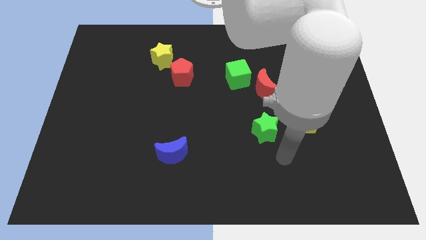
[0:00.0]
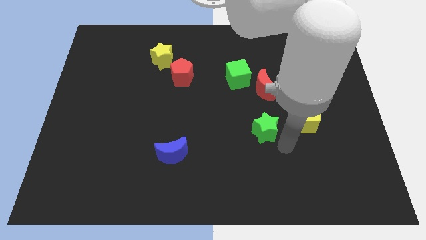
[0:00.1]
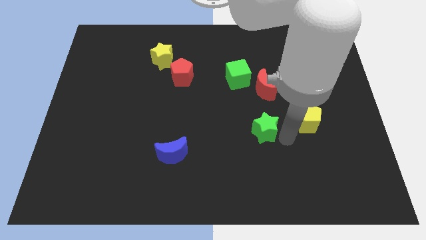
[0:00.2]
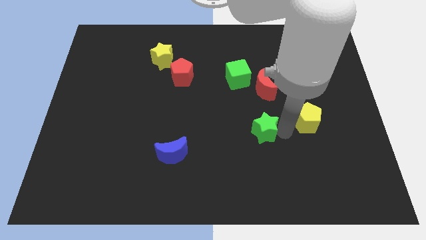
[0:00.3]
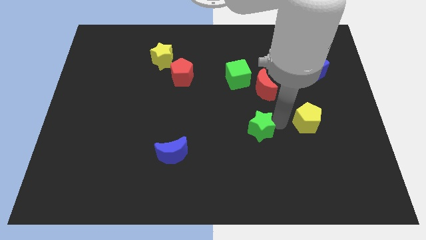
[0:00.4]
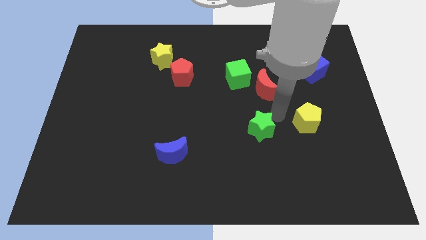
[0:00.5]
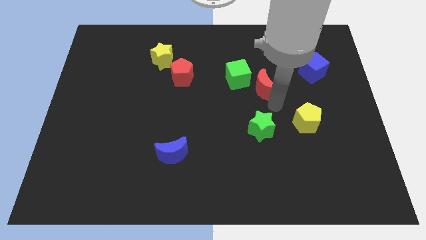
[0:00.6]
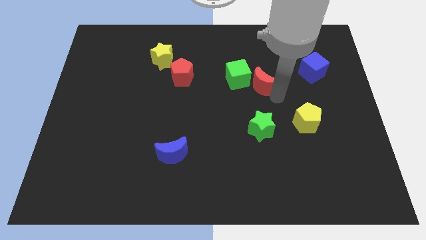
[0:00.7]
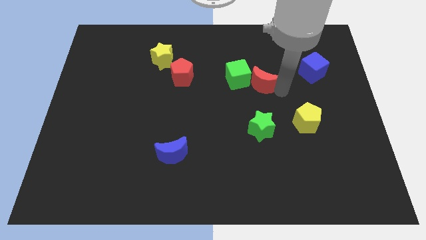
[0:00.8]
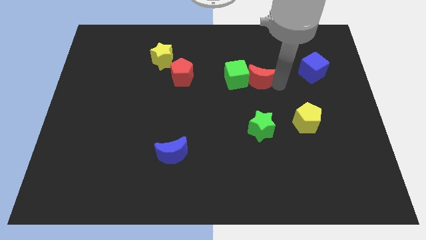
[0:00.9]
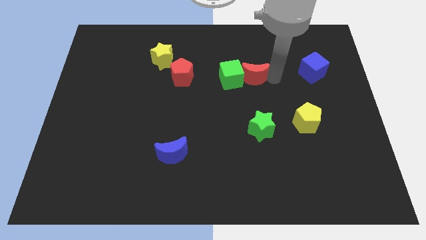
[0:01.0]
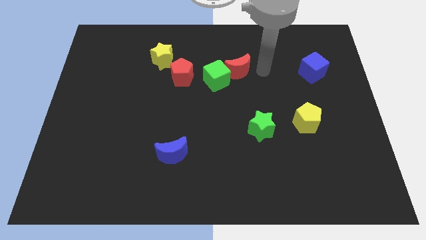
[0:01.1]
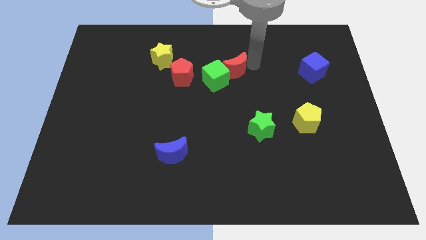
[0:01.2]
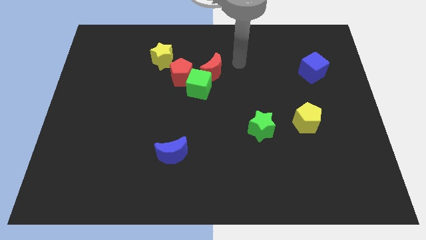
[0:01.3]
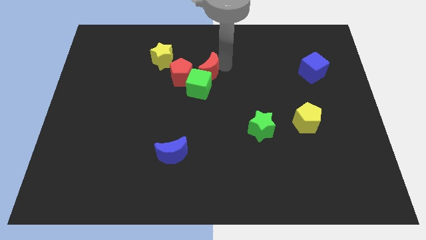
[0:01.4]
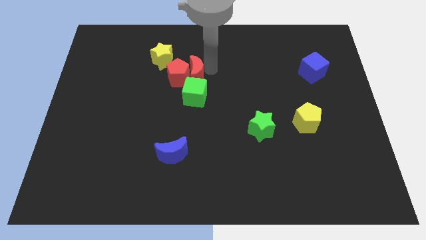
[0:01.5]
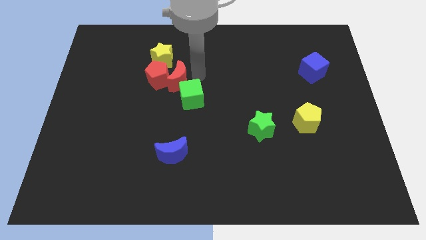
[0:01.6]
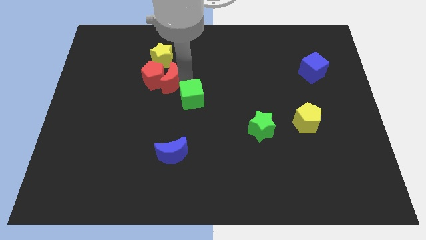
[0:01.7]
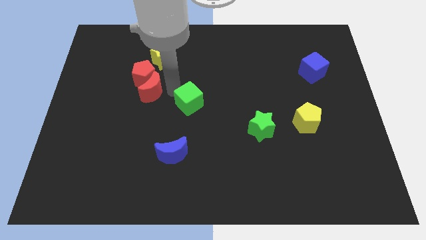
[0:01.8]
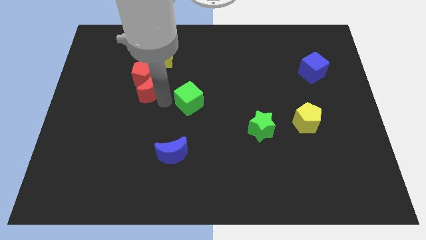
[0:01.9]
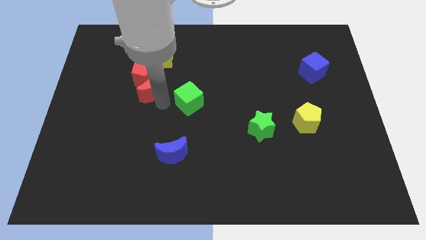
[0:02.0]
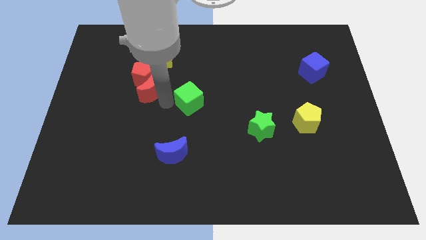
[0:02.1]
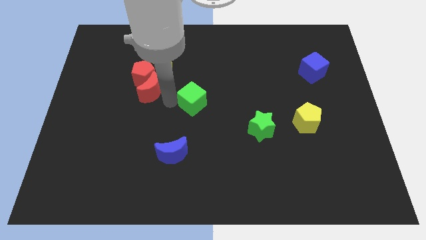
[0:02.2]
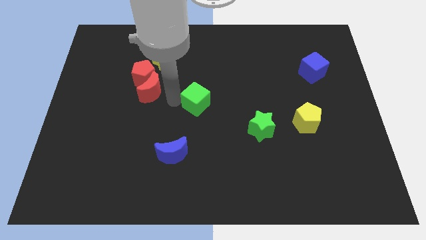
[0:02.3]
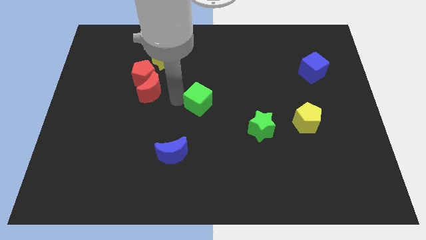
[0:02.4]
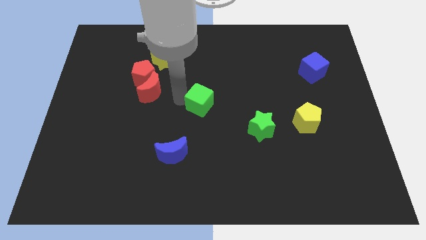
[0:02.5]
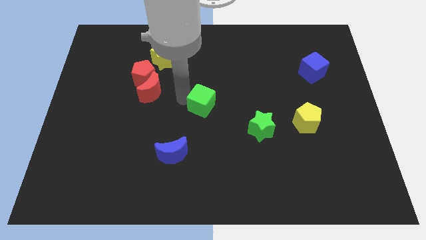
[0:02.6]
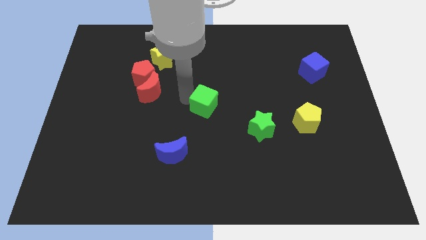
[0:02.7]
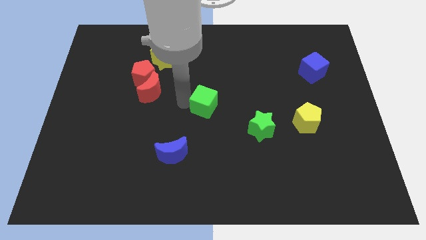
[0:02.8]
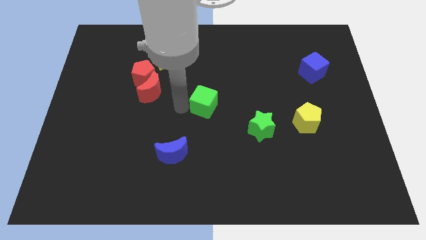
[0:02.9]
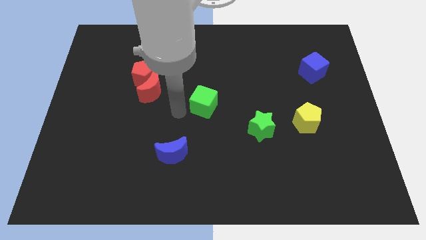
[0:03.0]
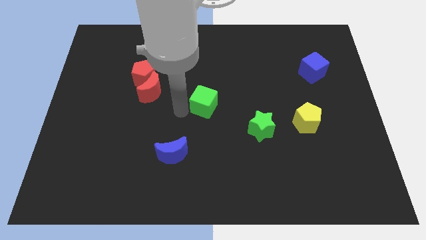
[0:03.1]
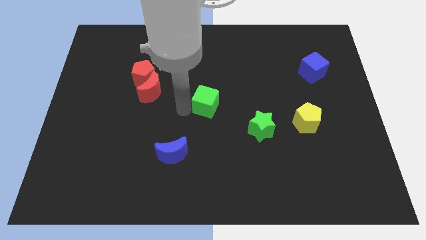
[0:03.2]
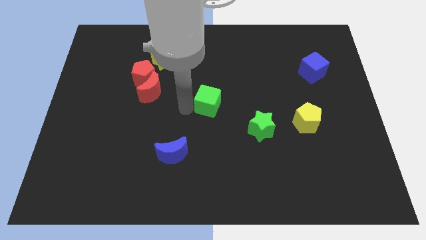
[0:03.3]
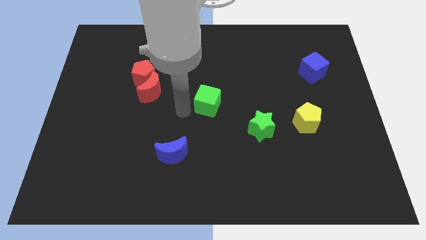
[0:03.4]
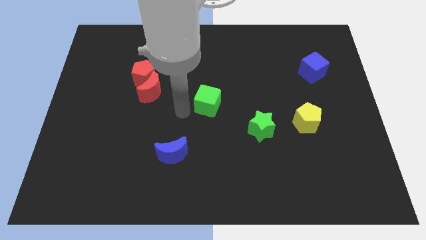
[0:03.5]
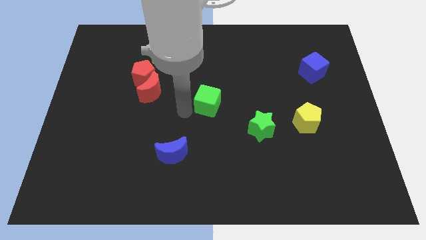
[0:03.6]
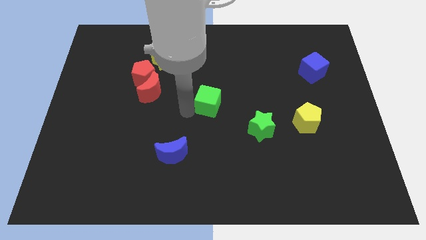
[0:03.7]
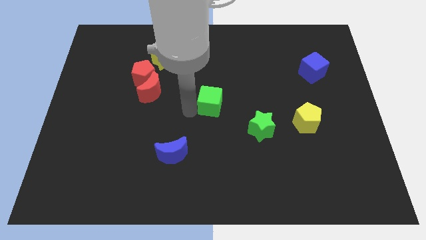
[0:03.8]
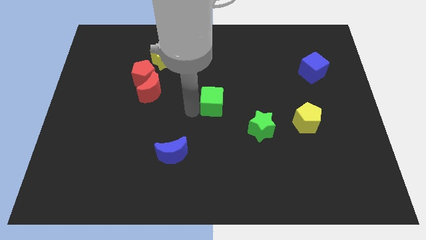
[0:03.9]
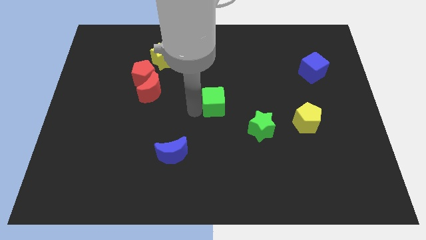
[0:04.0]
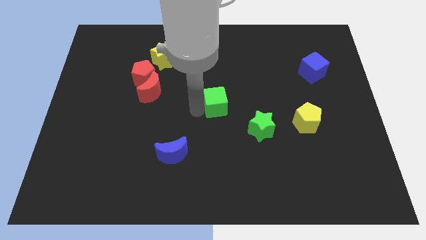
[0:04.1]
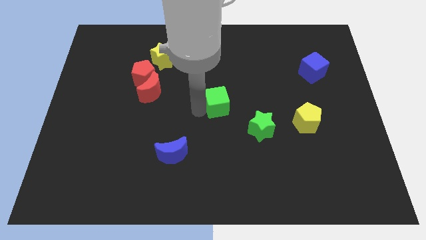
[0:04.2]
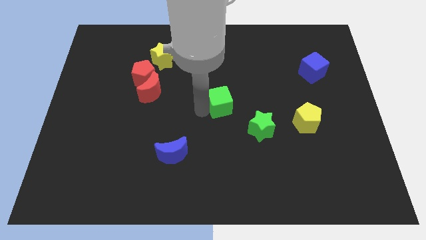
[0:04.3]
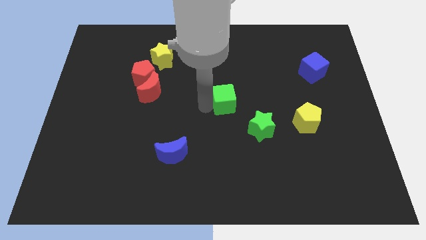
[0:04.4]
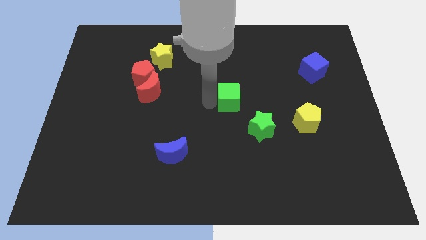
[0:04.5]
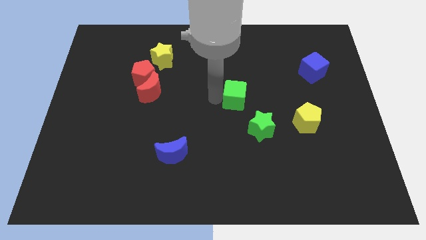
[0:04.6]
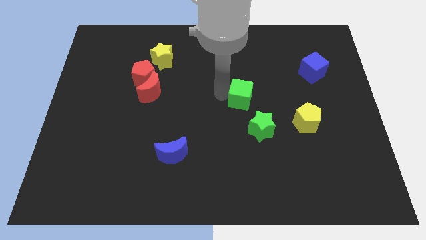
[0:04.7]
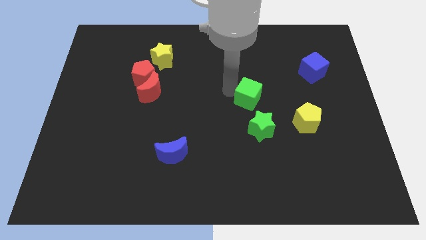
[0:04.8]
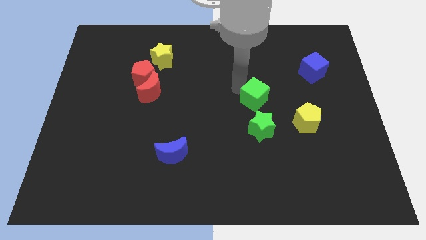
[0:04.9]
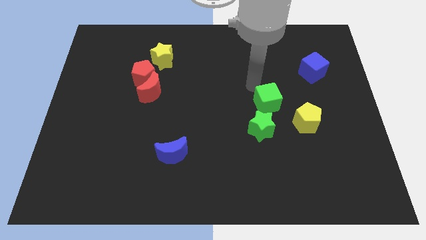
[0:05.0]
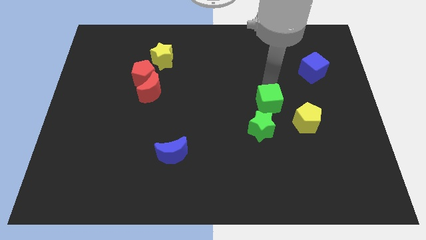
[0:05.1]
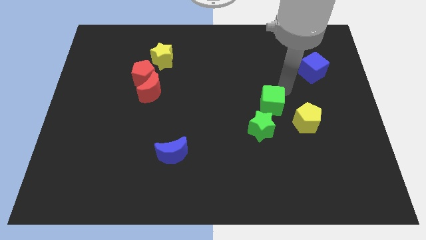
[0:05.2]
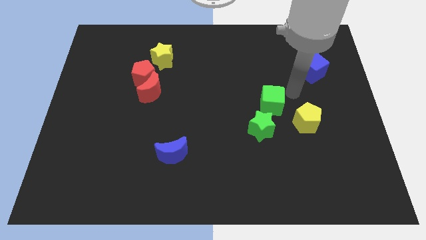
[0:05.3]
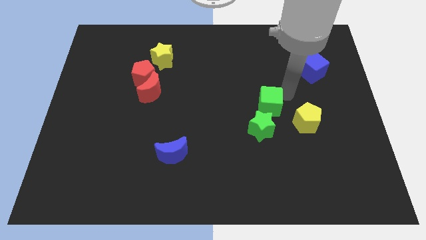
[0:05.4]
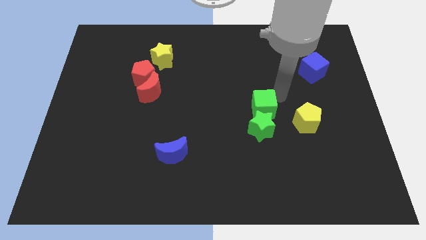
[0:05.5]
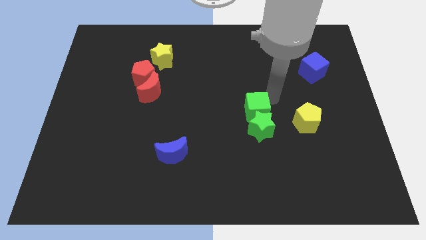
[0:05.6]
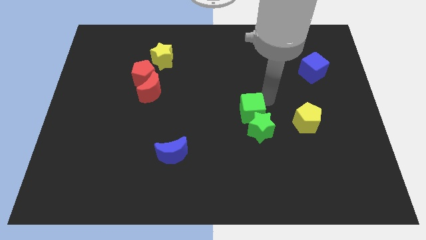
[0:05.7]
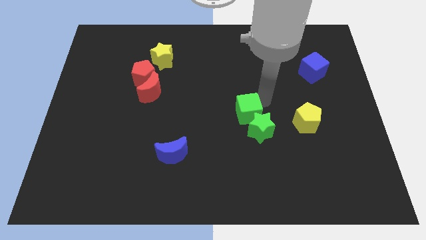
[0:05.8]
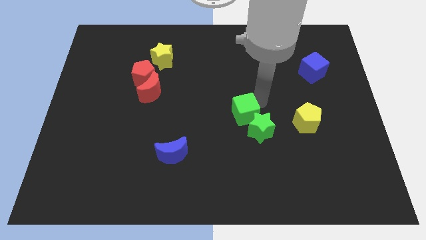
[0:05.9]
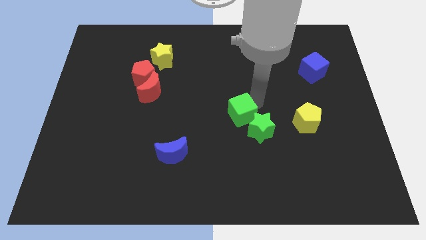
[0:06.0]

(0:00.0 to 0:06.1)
put the green cube to the left of the green star
